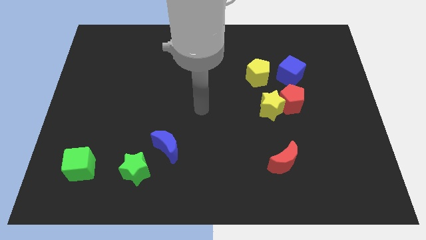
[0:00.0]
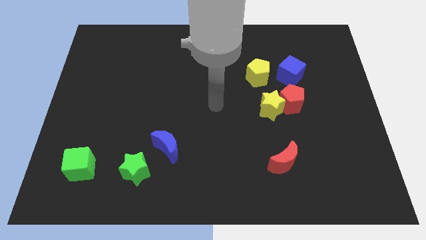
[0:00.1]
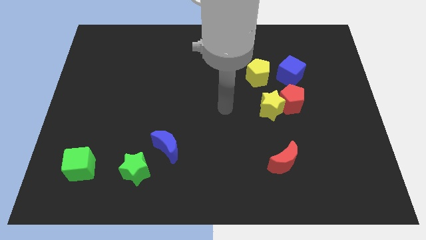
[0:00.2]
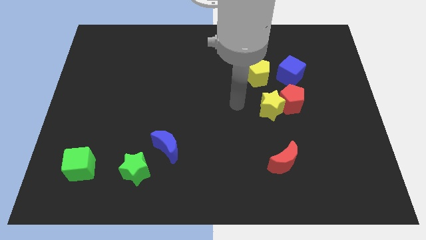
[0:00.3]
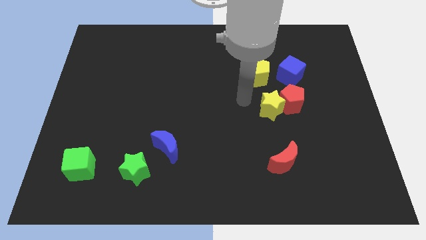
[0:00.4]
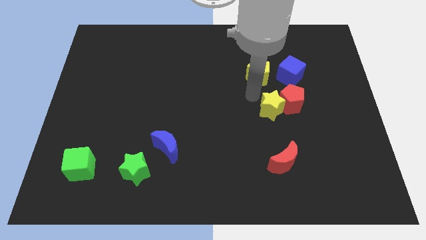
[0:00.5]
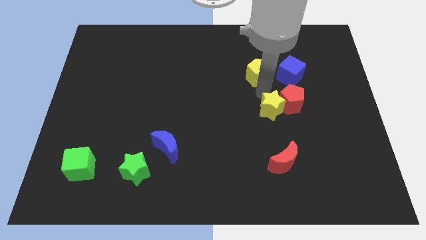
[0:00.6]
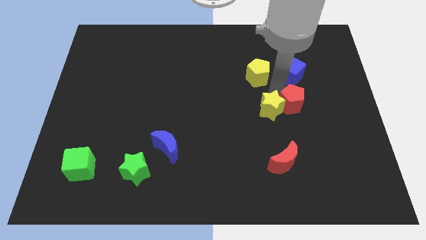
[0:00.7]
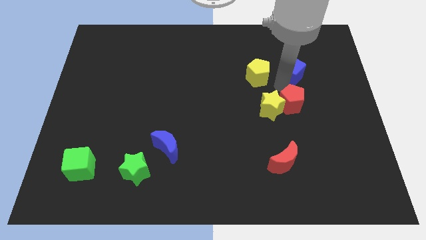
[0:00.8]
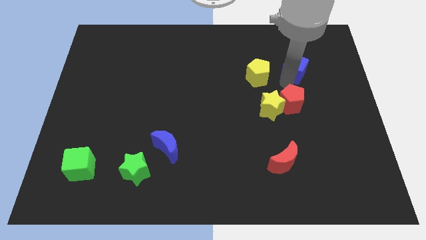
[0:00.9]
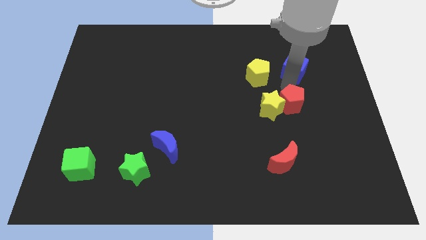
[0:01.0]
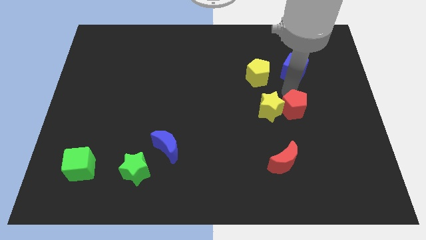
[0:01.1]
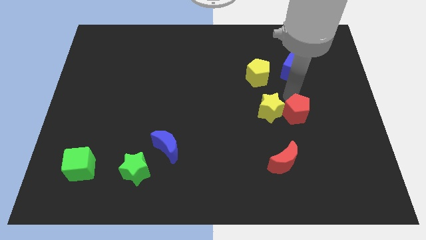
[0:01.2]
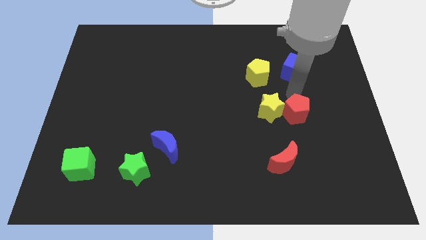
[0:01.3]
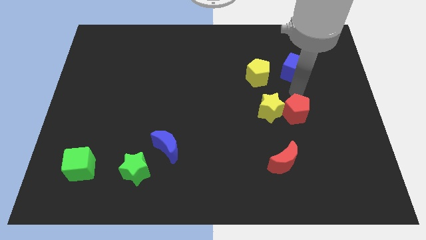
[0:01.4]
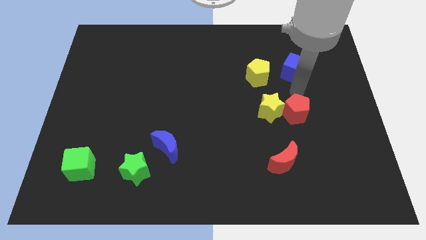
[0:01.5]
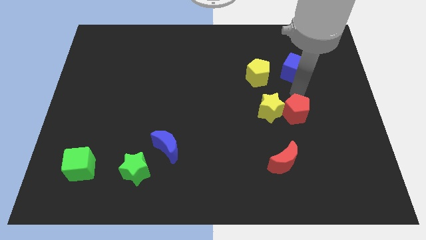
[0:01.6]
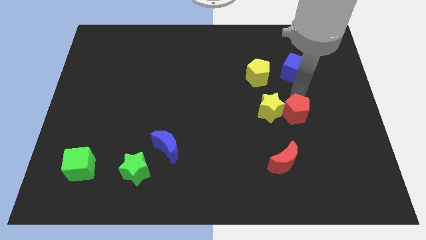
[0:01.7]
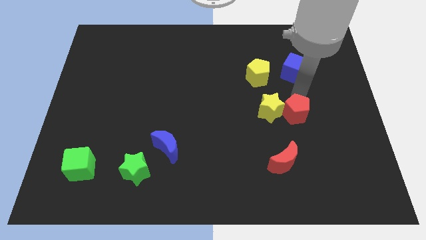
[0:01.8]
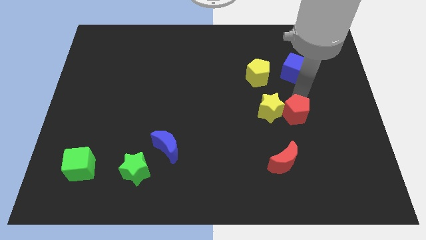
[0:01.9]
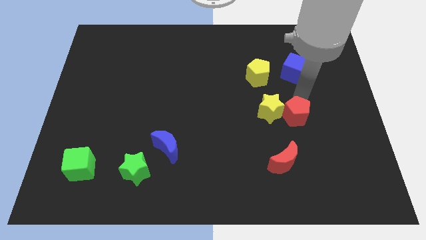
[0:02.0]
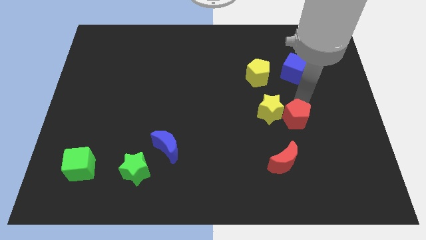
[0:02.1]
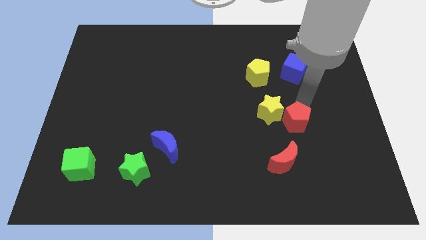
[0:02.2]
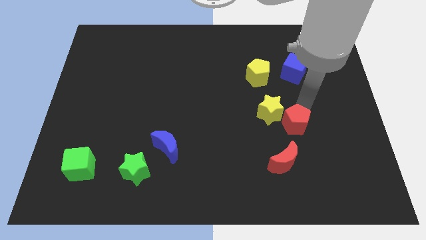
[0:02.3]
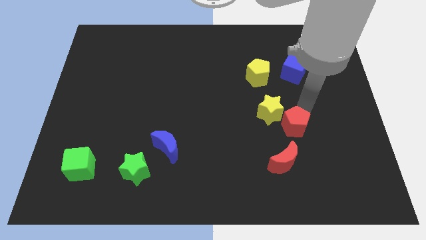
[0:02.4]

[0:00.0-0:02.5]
move the red pentagon slightly down

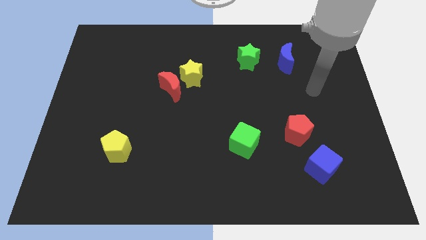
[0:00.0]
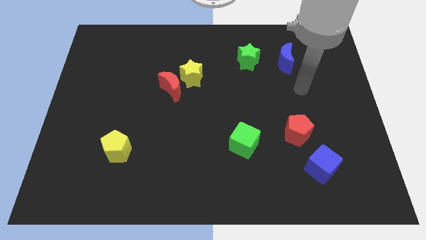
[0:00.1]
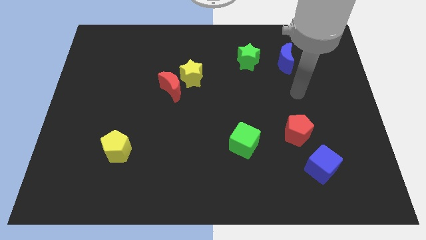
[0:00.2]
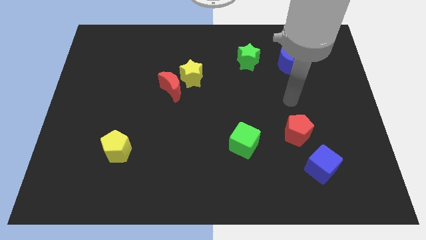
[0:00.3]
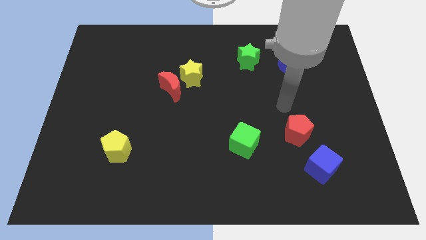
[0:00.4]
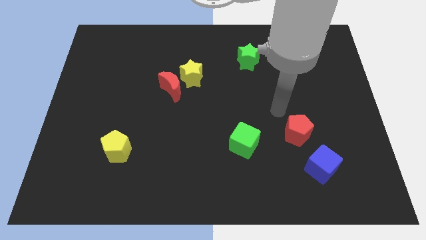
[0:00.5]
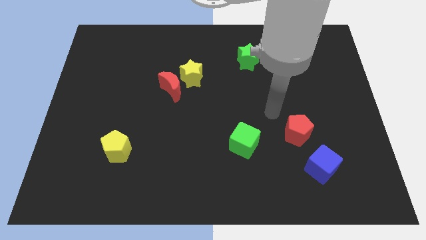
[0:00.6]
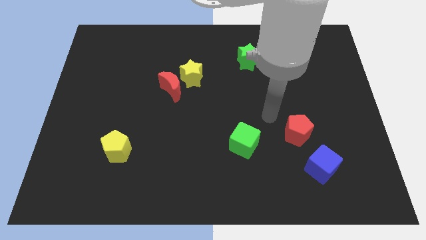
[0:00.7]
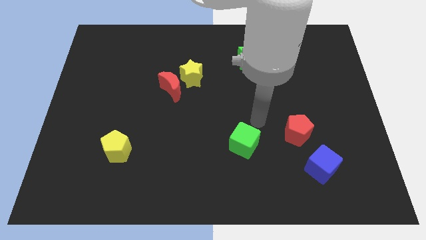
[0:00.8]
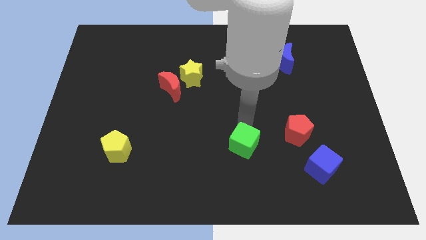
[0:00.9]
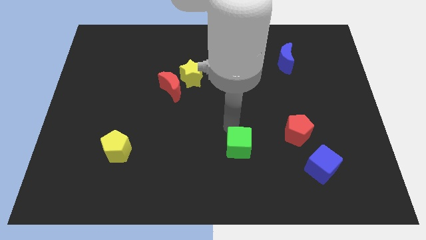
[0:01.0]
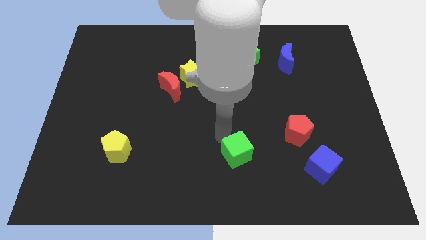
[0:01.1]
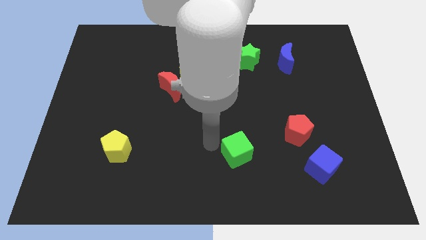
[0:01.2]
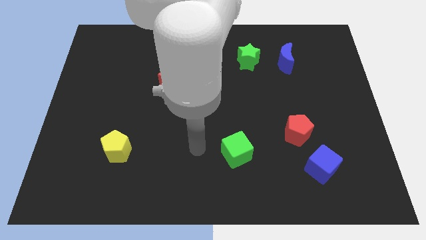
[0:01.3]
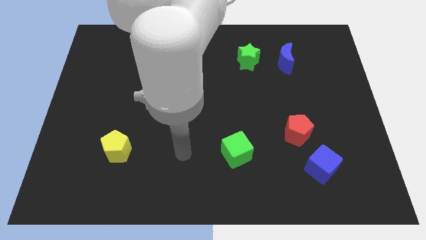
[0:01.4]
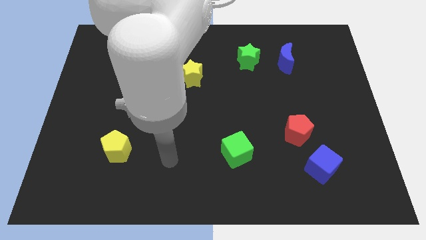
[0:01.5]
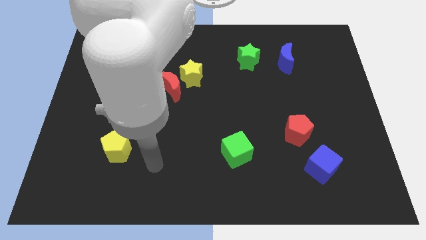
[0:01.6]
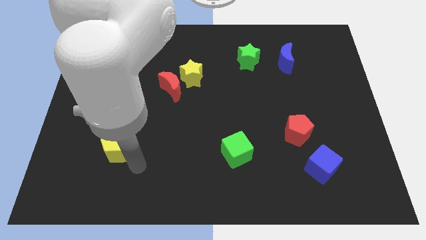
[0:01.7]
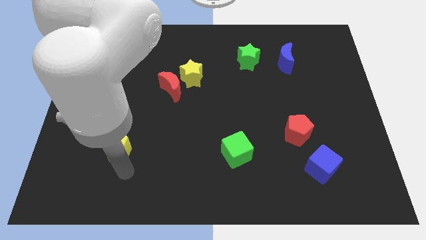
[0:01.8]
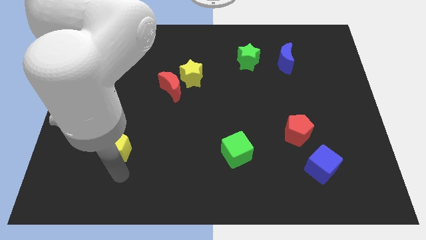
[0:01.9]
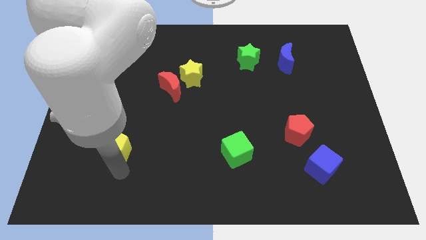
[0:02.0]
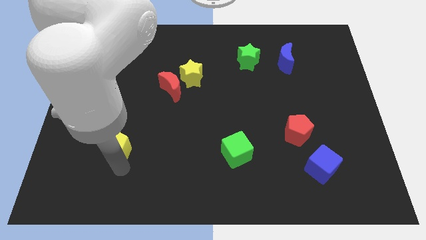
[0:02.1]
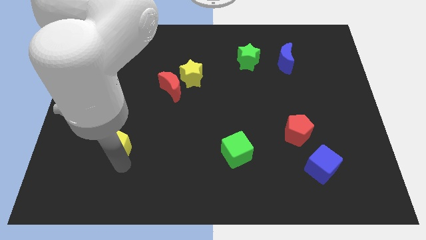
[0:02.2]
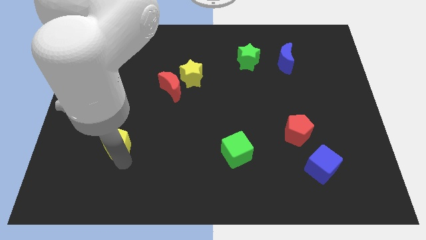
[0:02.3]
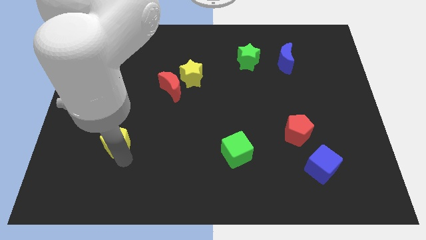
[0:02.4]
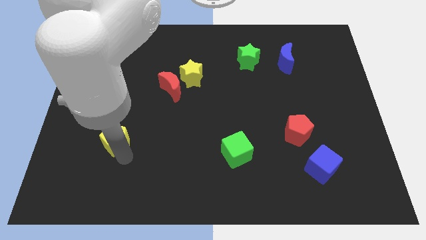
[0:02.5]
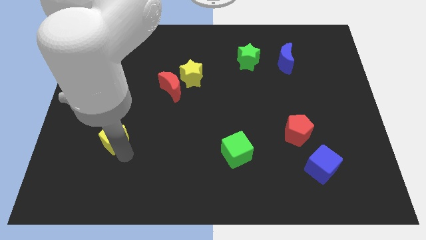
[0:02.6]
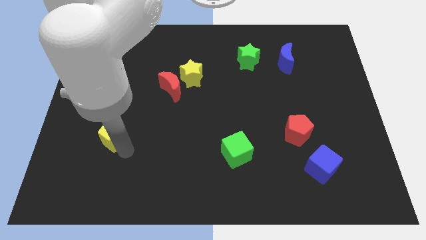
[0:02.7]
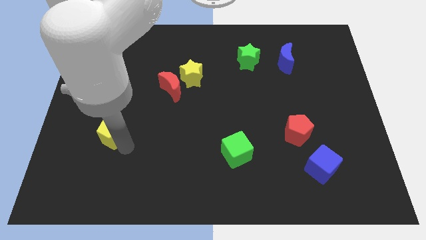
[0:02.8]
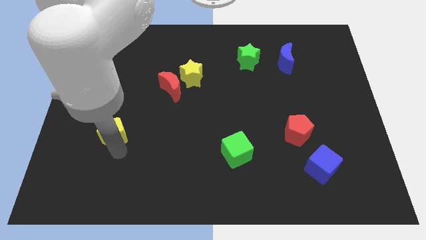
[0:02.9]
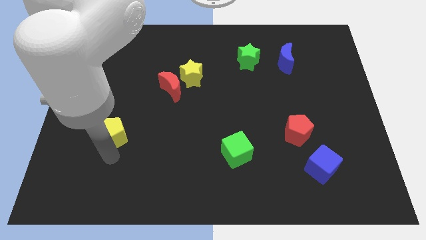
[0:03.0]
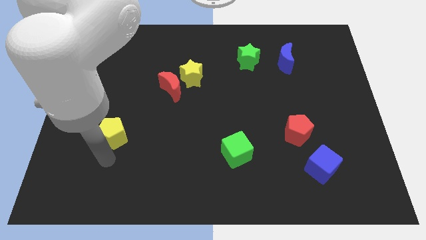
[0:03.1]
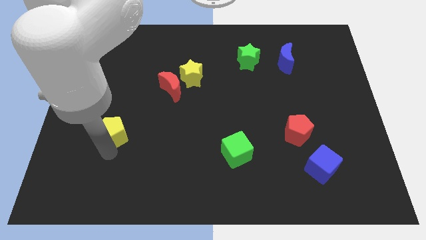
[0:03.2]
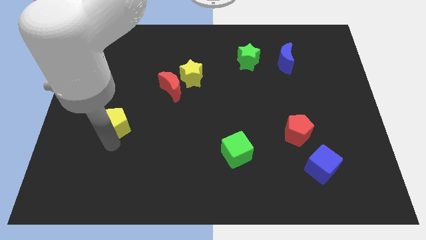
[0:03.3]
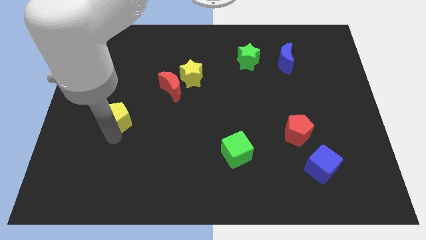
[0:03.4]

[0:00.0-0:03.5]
slide the yellow pentagon slightly up

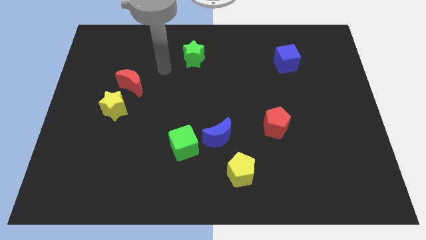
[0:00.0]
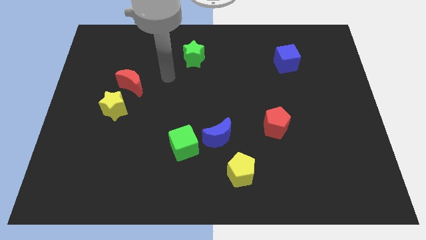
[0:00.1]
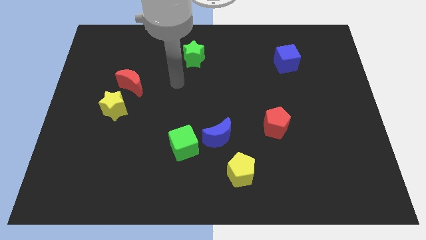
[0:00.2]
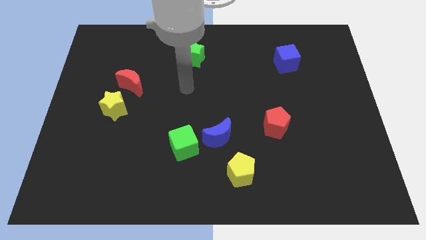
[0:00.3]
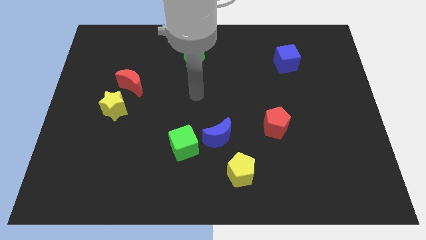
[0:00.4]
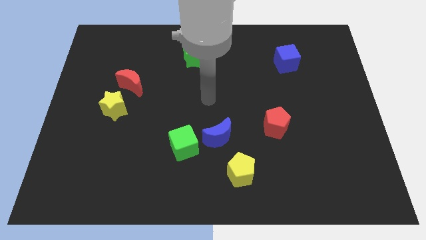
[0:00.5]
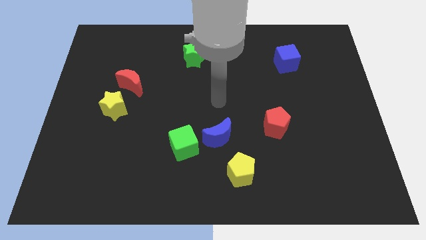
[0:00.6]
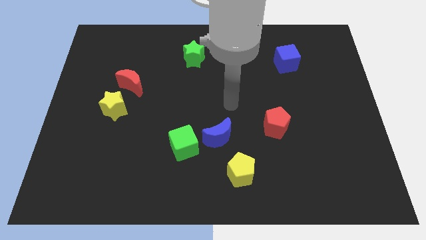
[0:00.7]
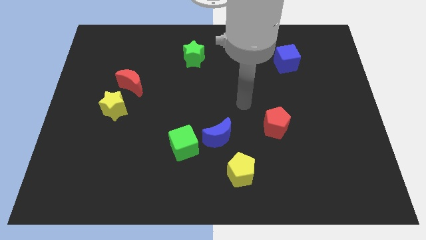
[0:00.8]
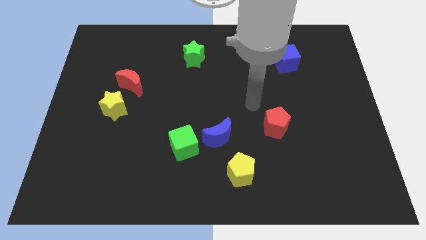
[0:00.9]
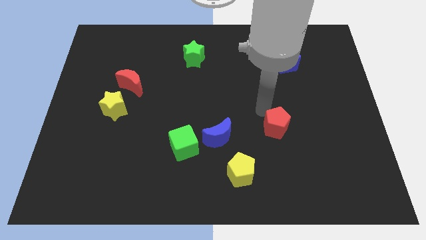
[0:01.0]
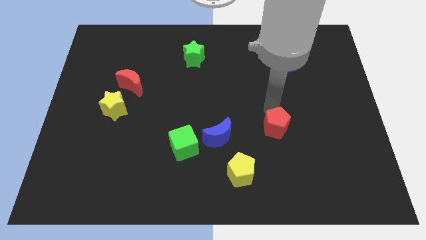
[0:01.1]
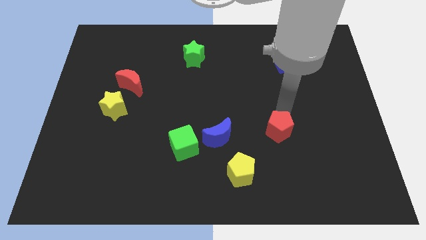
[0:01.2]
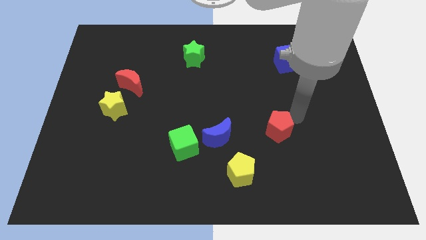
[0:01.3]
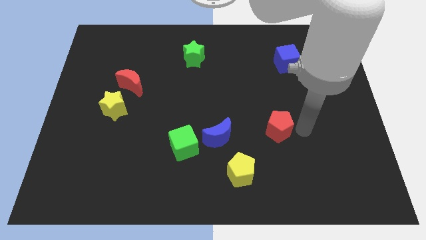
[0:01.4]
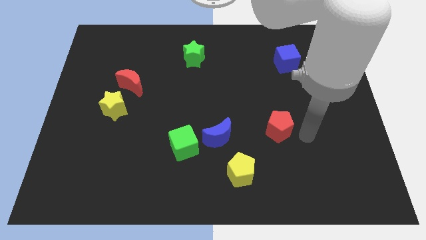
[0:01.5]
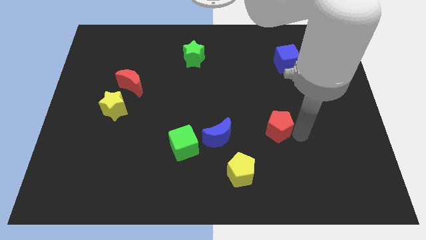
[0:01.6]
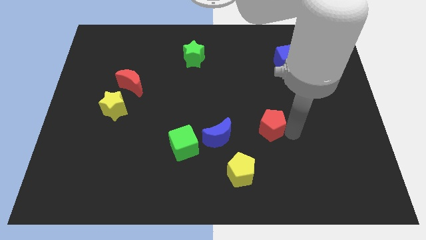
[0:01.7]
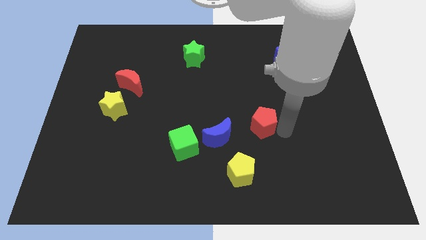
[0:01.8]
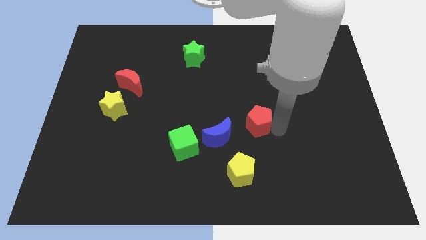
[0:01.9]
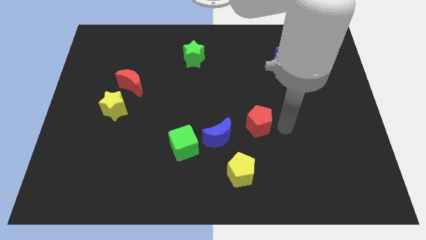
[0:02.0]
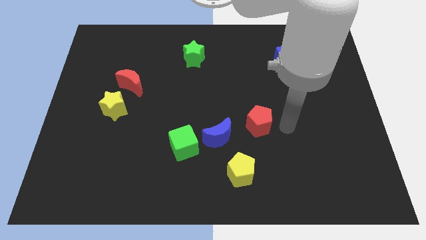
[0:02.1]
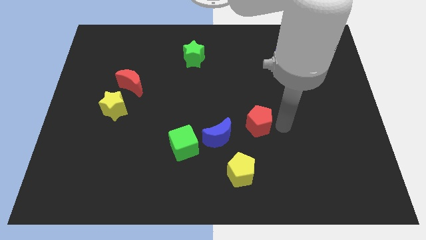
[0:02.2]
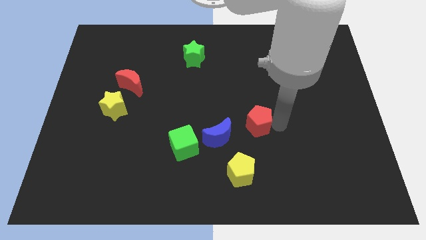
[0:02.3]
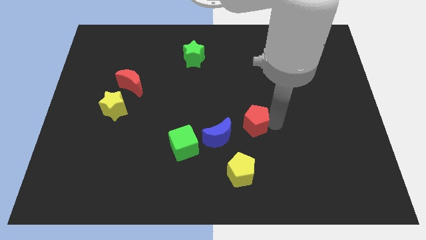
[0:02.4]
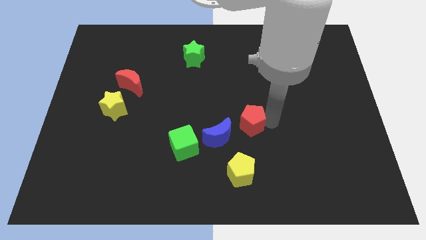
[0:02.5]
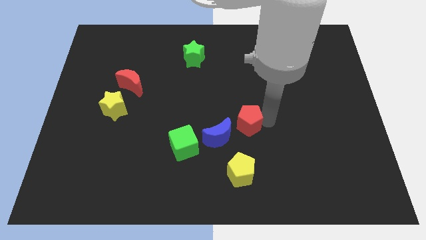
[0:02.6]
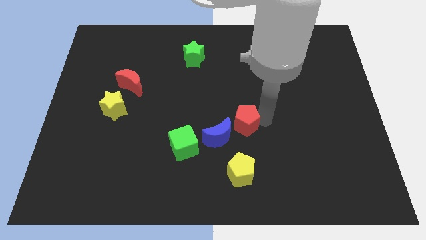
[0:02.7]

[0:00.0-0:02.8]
move the red pentagon left slightly
